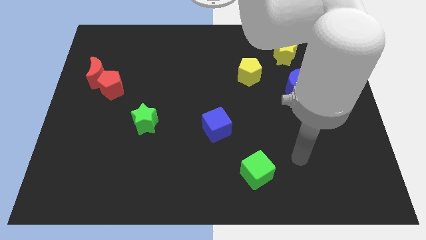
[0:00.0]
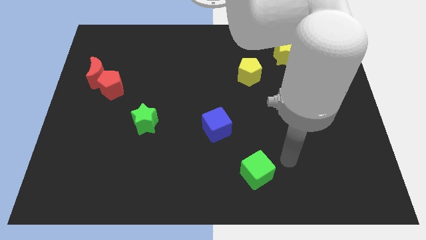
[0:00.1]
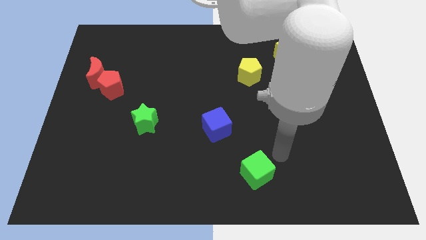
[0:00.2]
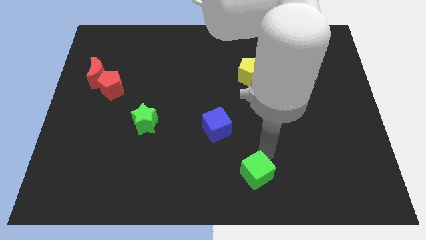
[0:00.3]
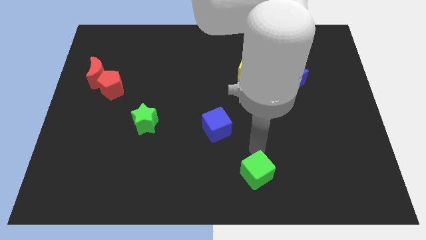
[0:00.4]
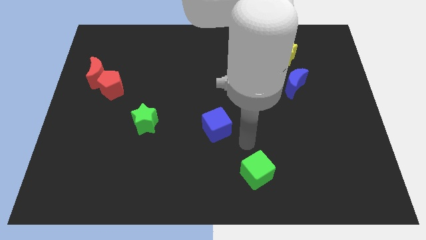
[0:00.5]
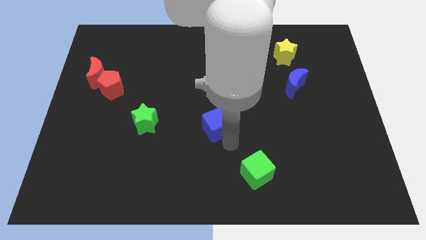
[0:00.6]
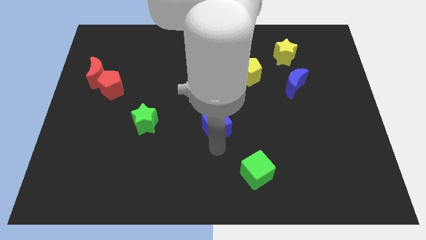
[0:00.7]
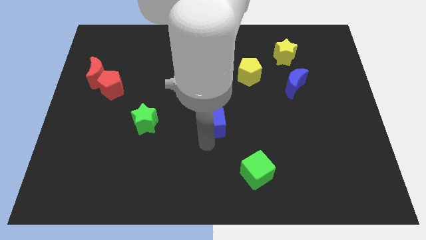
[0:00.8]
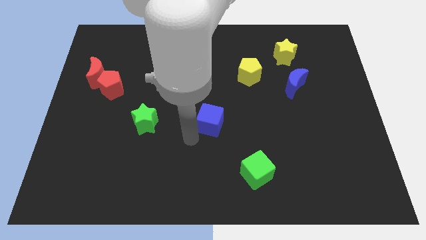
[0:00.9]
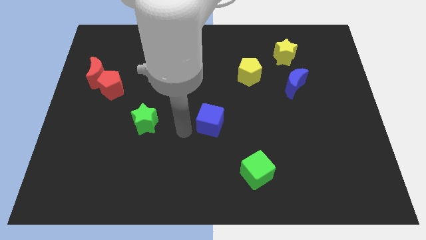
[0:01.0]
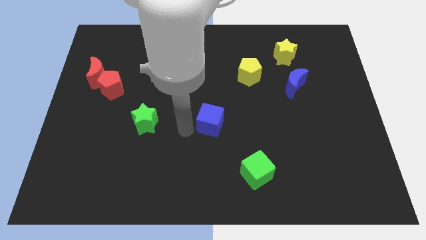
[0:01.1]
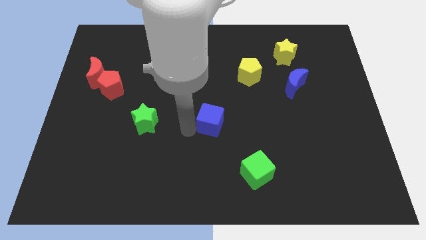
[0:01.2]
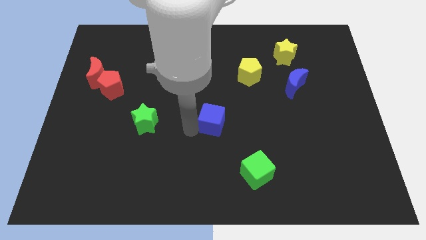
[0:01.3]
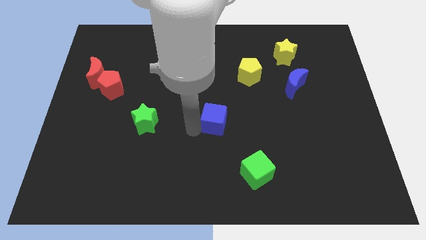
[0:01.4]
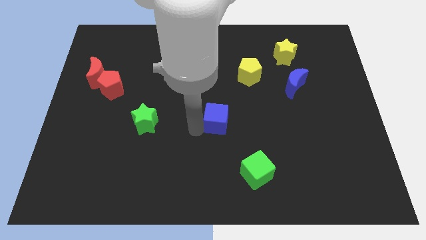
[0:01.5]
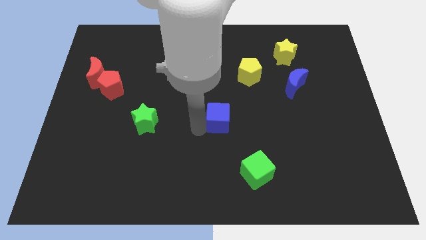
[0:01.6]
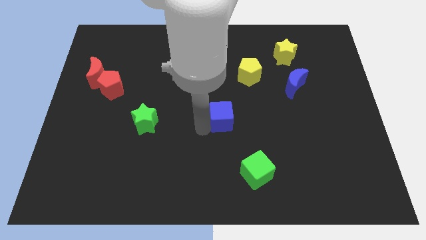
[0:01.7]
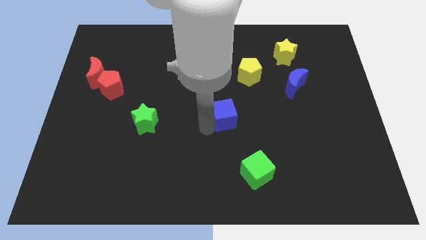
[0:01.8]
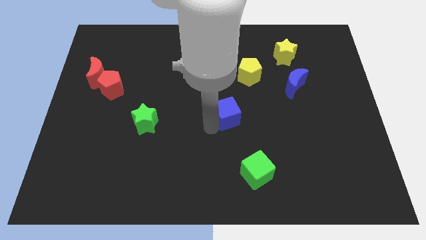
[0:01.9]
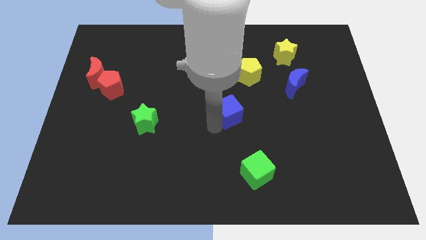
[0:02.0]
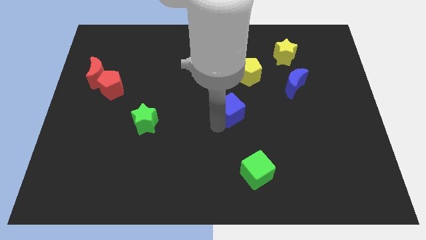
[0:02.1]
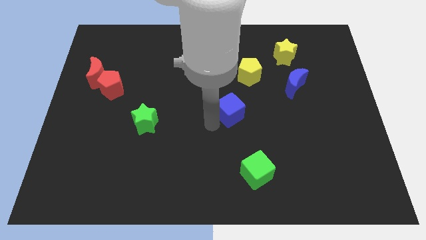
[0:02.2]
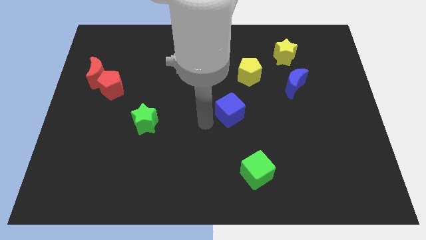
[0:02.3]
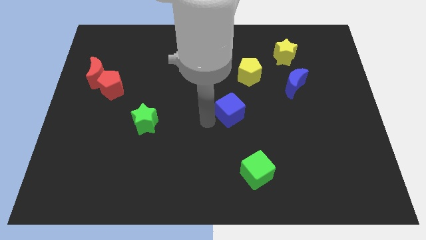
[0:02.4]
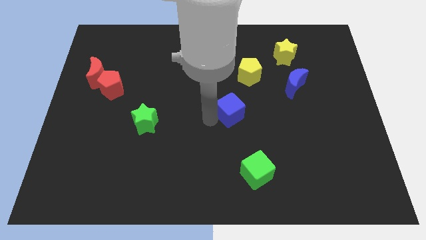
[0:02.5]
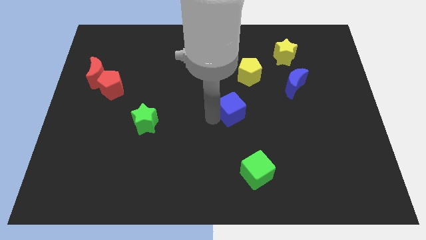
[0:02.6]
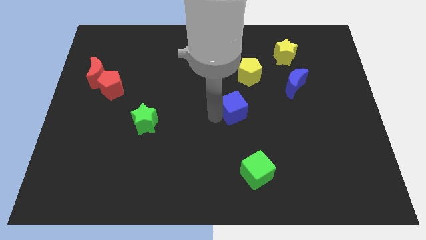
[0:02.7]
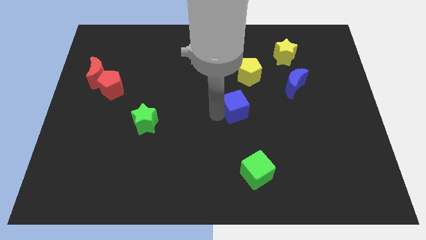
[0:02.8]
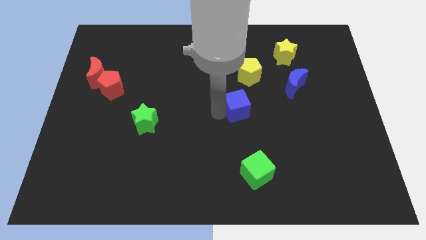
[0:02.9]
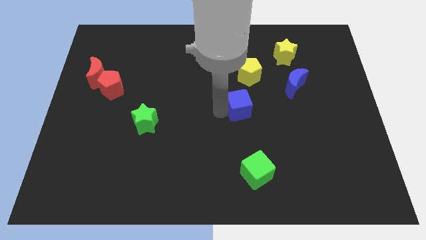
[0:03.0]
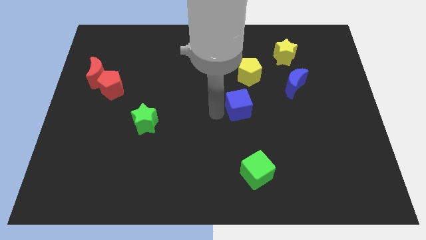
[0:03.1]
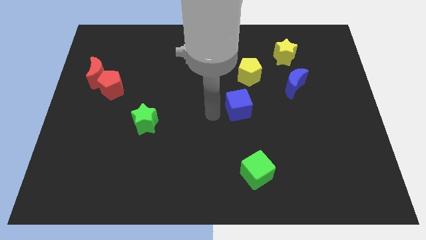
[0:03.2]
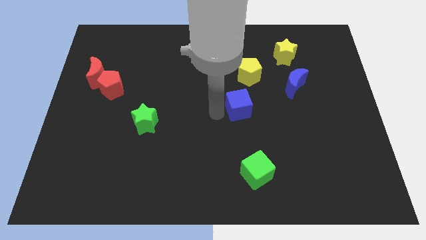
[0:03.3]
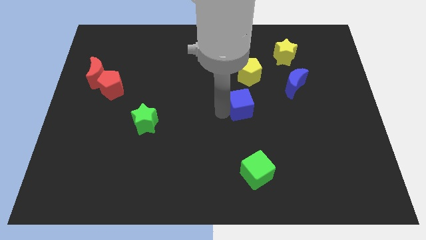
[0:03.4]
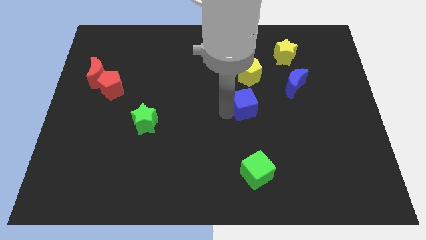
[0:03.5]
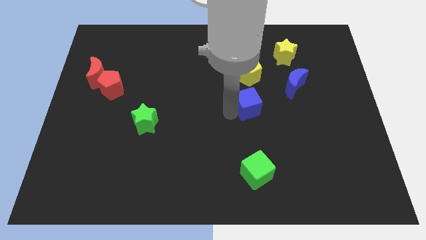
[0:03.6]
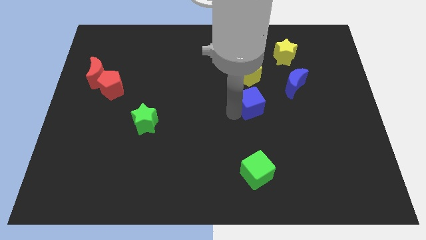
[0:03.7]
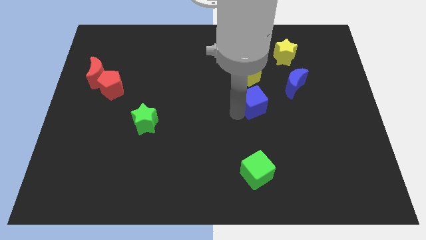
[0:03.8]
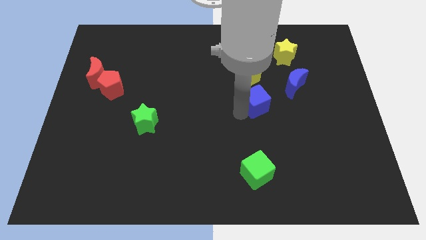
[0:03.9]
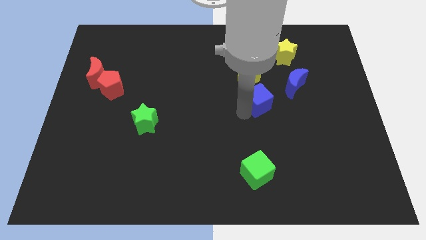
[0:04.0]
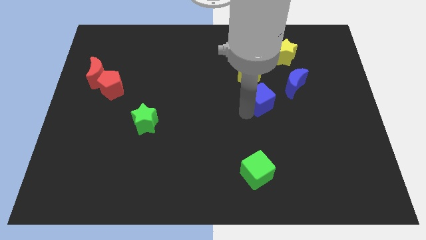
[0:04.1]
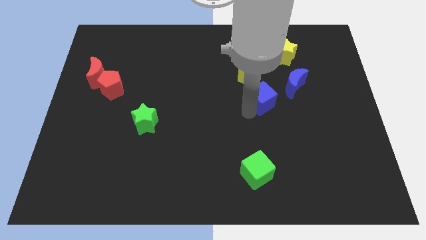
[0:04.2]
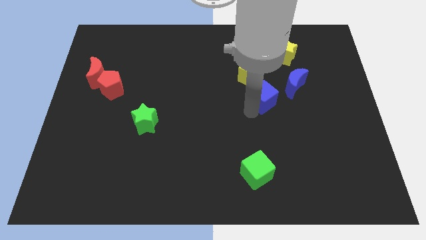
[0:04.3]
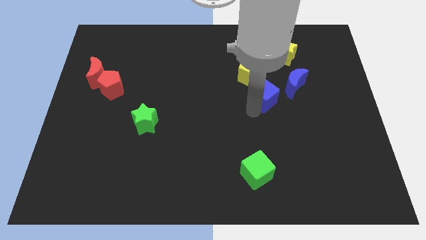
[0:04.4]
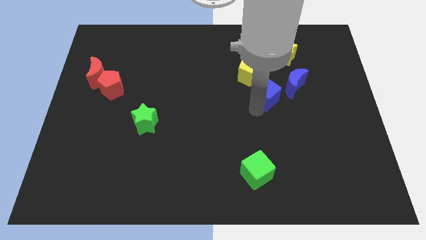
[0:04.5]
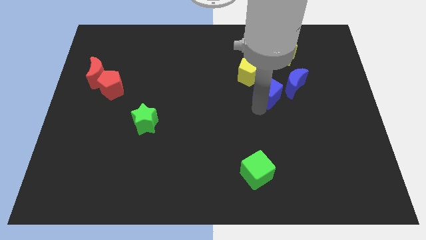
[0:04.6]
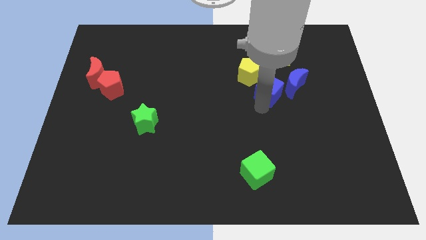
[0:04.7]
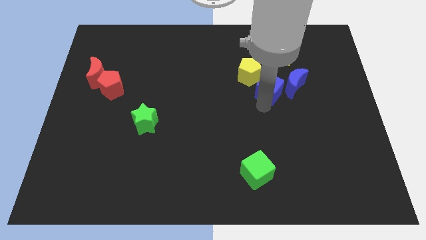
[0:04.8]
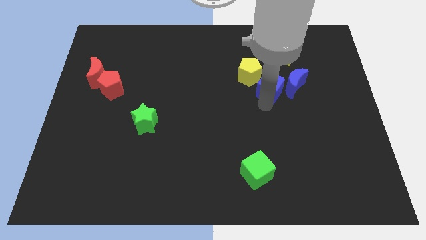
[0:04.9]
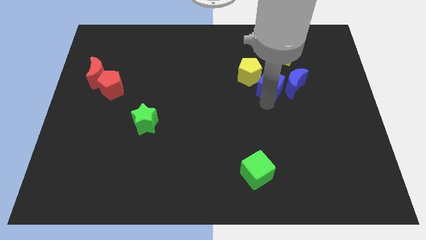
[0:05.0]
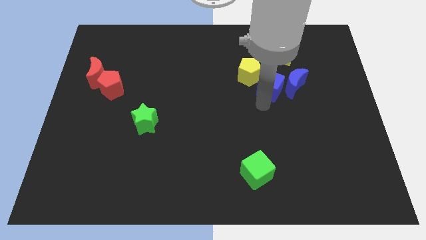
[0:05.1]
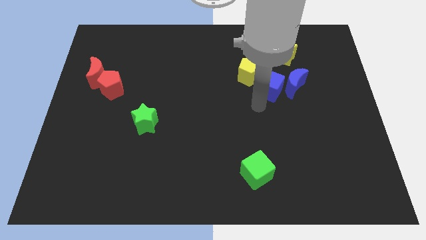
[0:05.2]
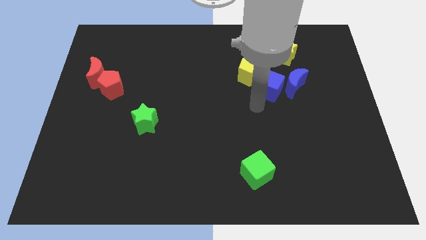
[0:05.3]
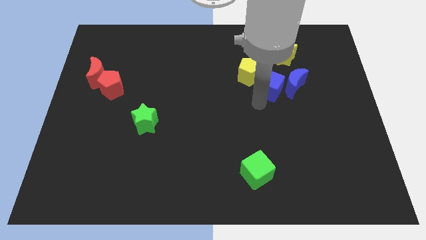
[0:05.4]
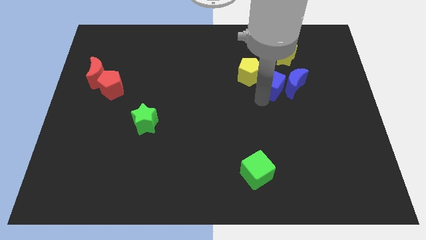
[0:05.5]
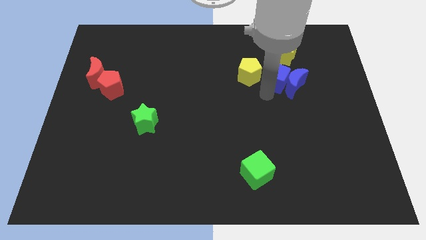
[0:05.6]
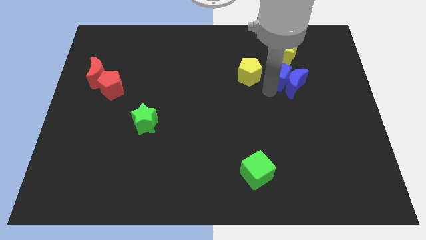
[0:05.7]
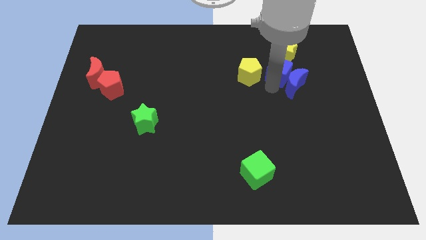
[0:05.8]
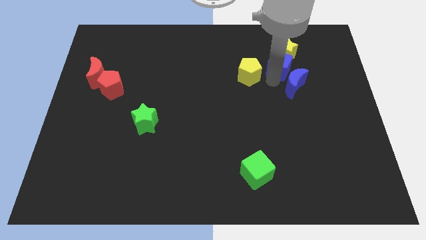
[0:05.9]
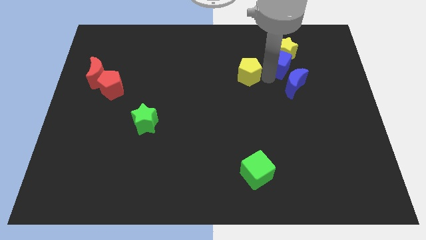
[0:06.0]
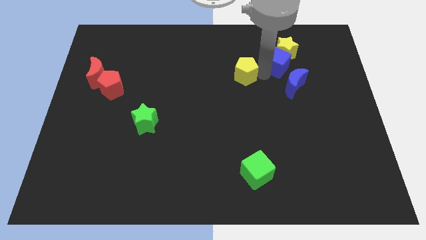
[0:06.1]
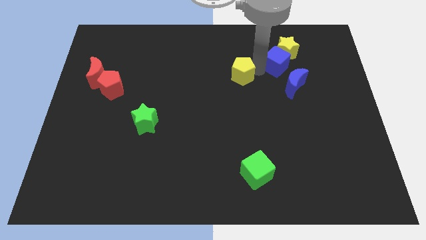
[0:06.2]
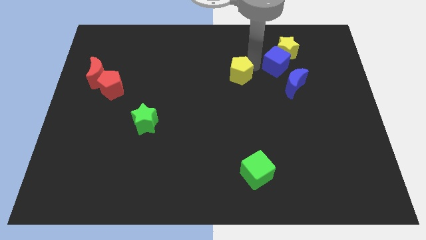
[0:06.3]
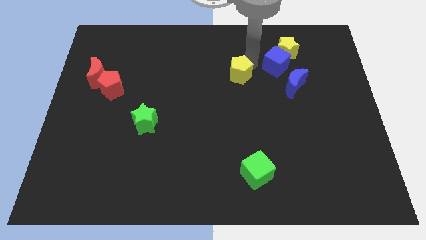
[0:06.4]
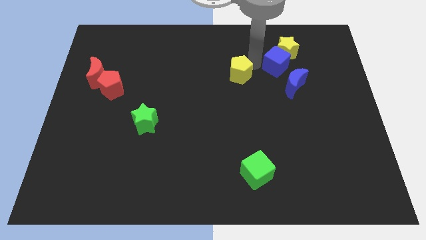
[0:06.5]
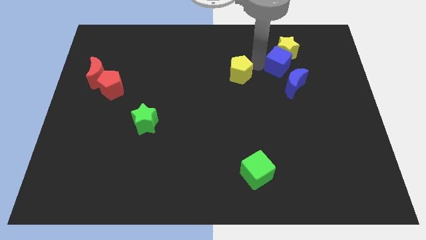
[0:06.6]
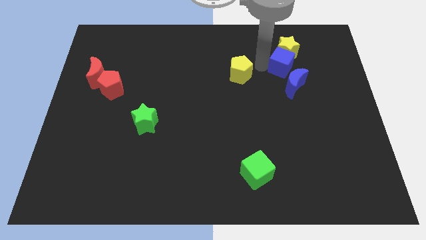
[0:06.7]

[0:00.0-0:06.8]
push the blue cube diagonally down and to the right of the yellow star
